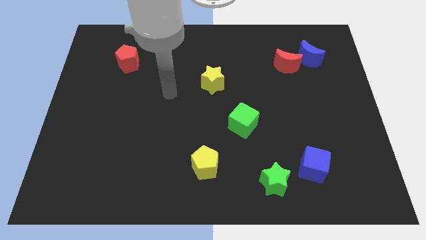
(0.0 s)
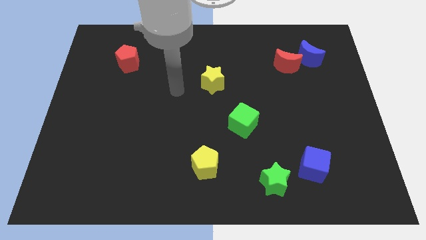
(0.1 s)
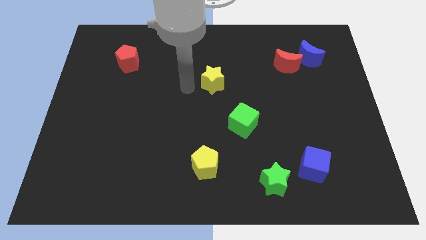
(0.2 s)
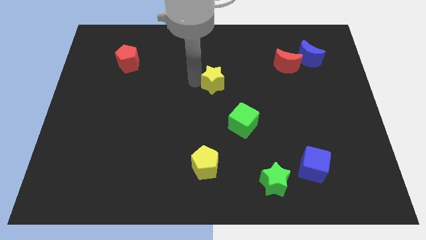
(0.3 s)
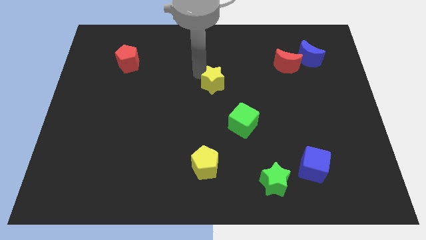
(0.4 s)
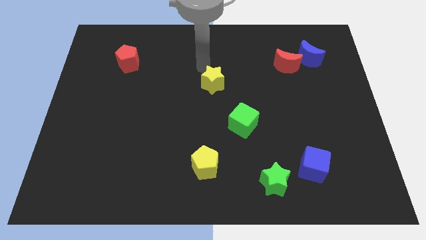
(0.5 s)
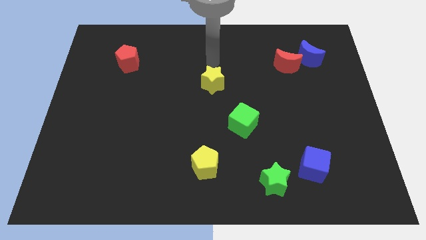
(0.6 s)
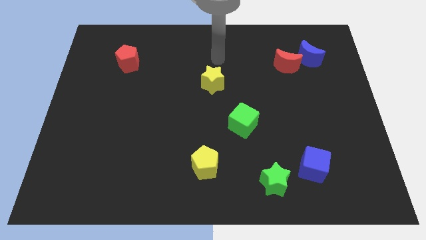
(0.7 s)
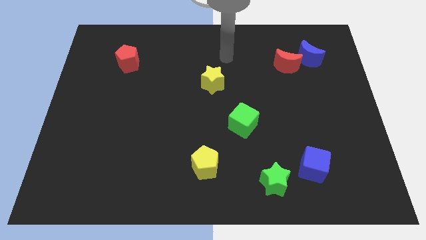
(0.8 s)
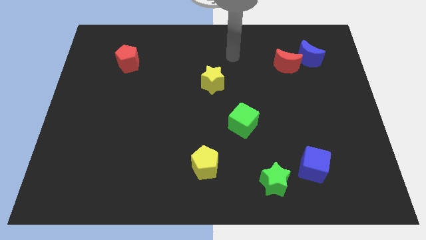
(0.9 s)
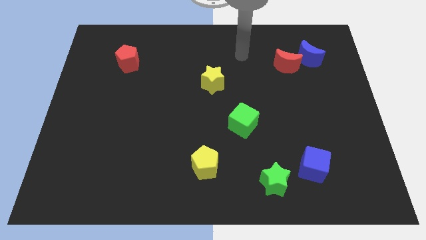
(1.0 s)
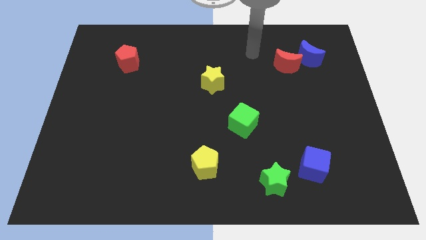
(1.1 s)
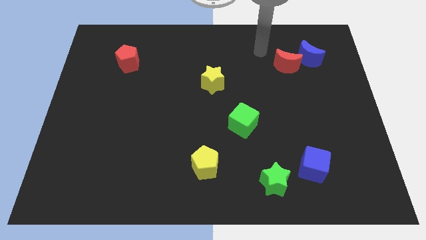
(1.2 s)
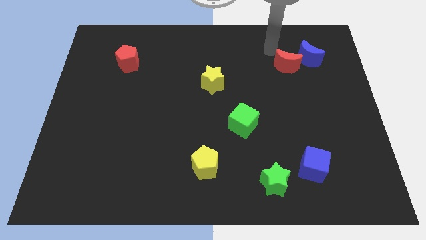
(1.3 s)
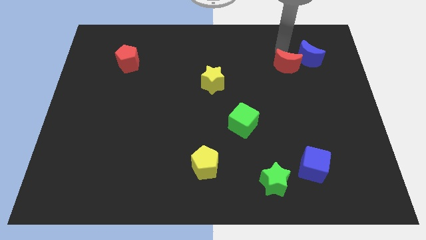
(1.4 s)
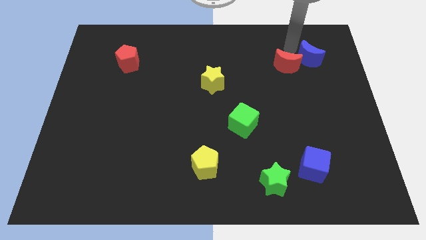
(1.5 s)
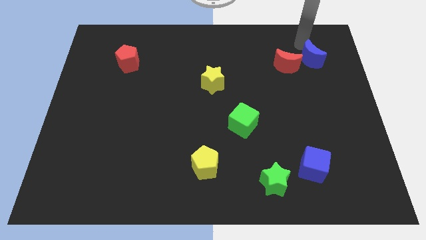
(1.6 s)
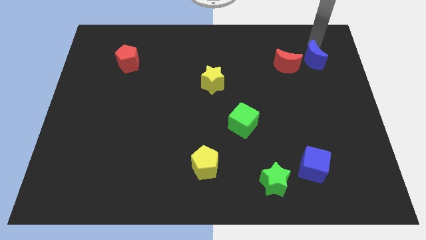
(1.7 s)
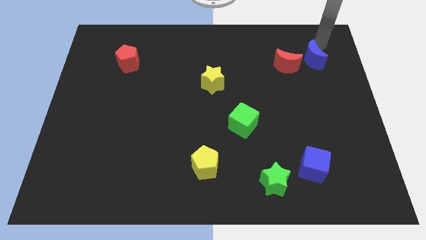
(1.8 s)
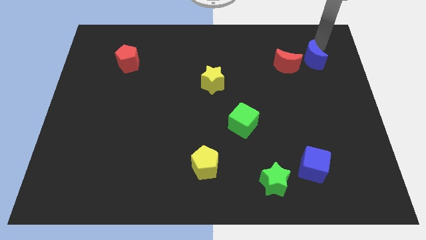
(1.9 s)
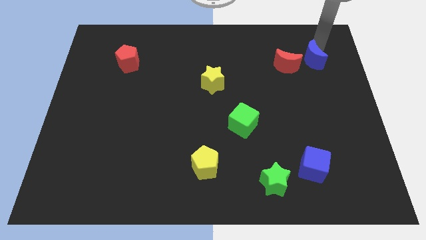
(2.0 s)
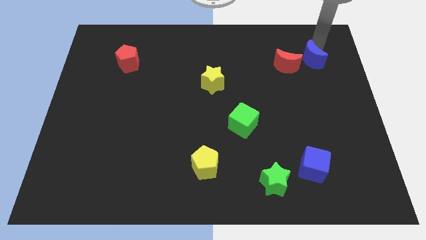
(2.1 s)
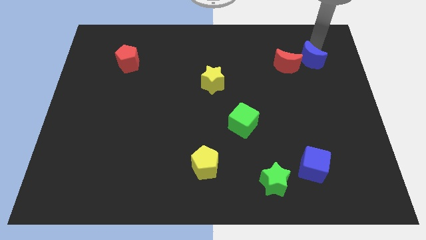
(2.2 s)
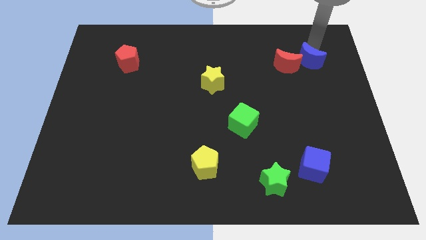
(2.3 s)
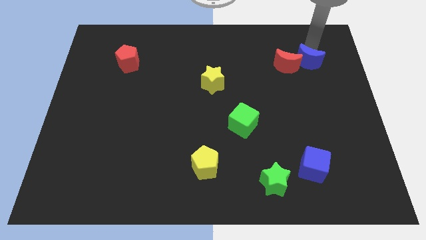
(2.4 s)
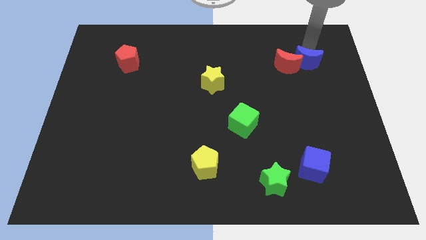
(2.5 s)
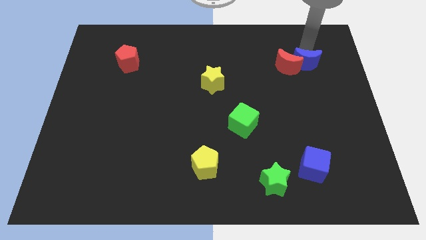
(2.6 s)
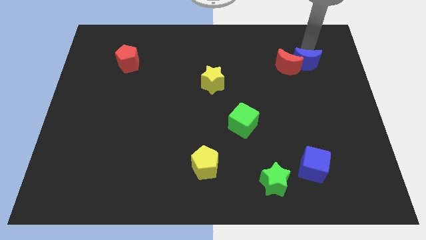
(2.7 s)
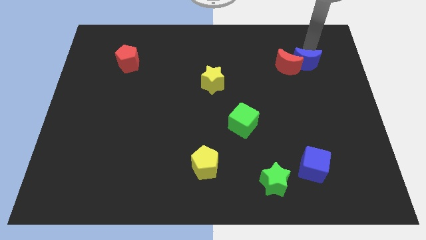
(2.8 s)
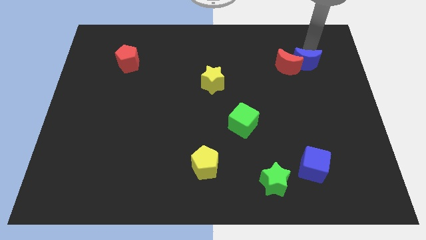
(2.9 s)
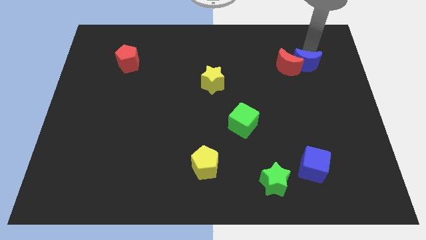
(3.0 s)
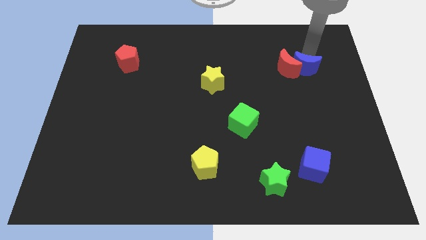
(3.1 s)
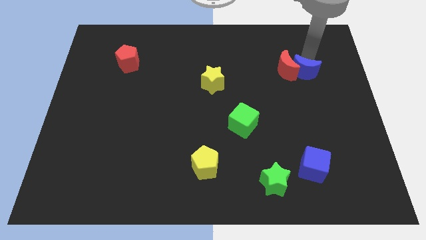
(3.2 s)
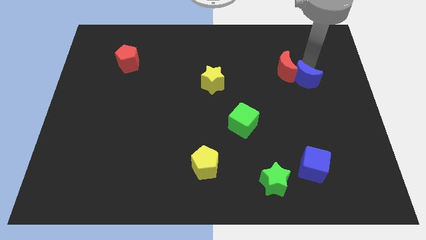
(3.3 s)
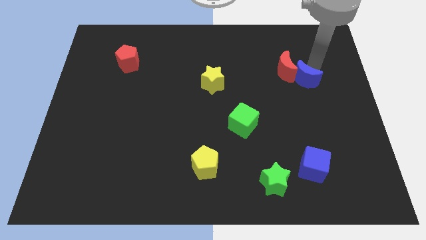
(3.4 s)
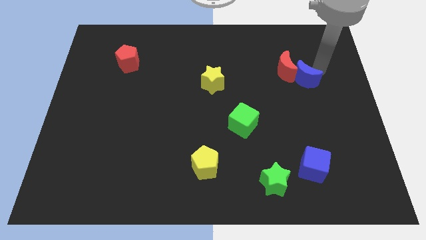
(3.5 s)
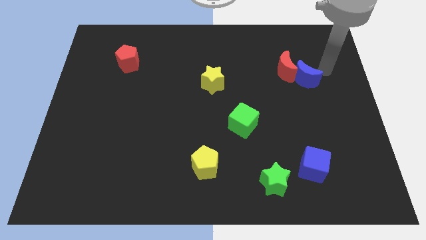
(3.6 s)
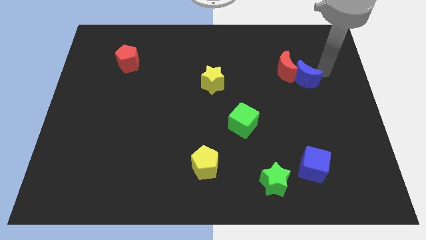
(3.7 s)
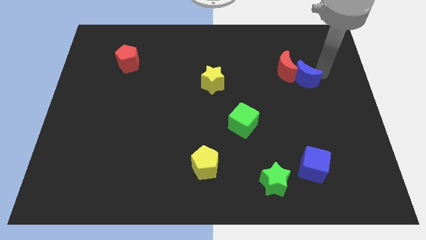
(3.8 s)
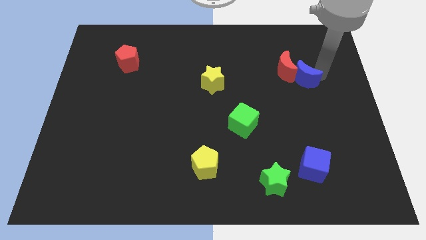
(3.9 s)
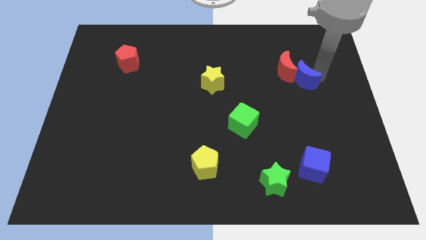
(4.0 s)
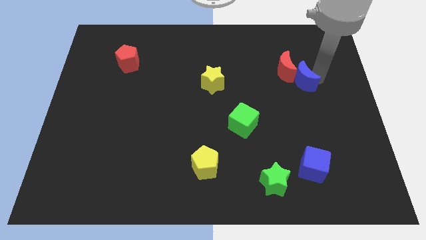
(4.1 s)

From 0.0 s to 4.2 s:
move the blue moon diagonally down and left a bit

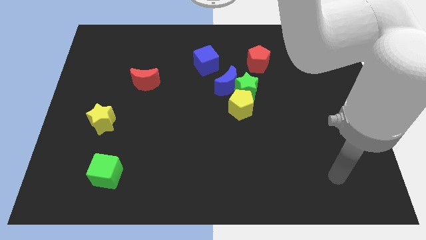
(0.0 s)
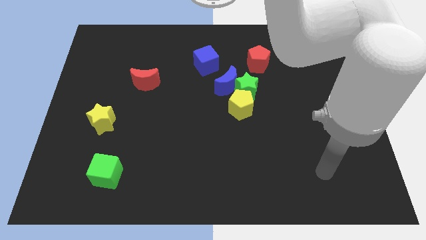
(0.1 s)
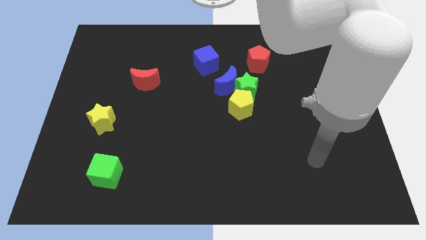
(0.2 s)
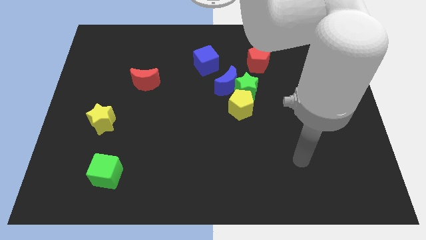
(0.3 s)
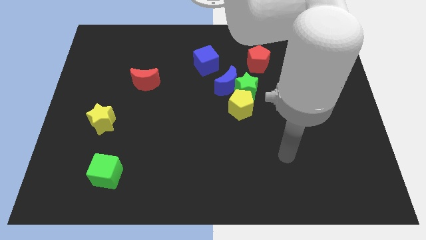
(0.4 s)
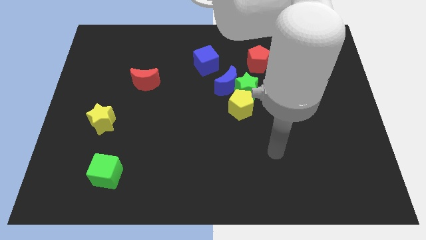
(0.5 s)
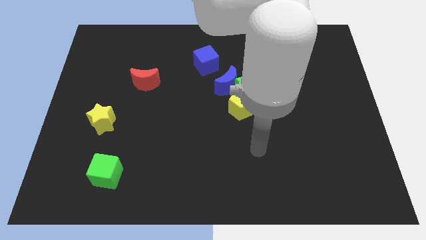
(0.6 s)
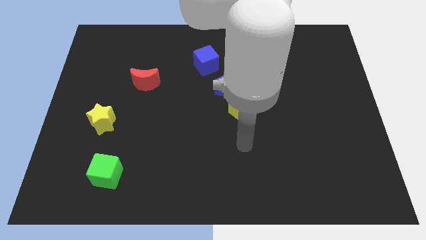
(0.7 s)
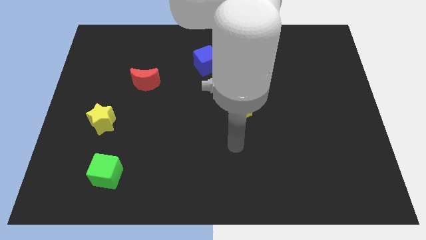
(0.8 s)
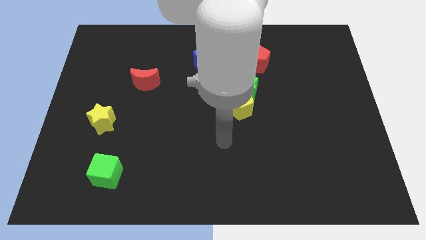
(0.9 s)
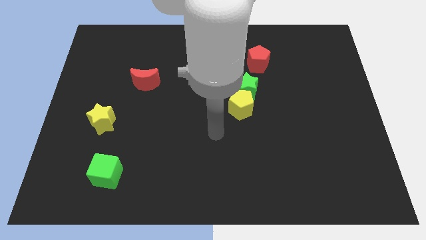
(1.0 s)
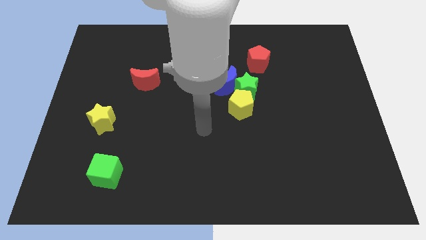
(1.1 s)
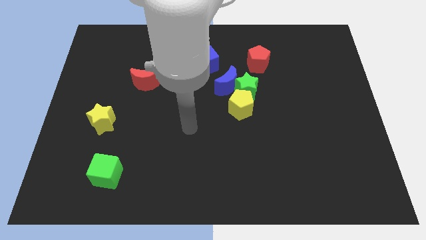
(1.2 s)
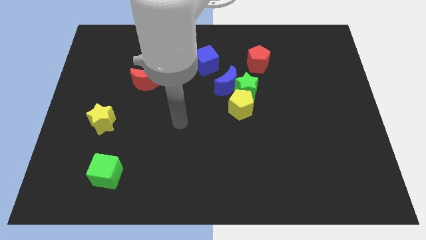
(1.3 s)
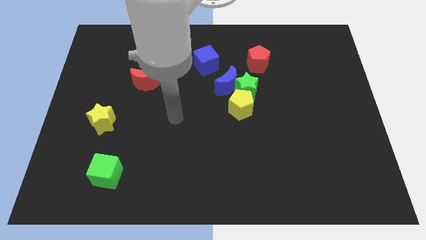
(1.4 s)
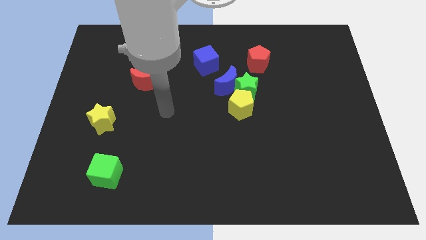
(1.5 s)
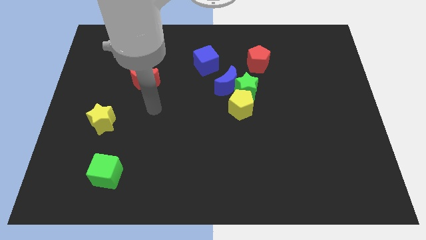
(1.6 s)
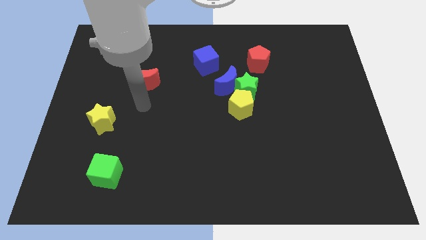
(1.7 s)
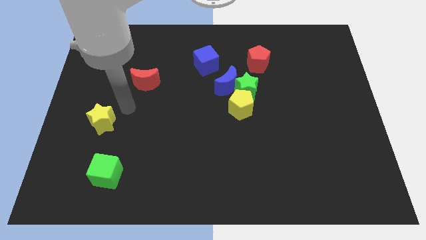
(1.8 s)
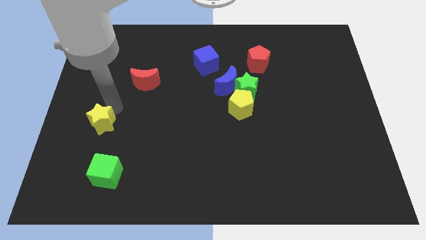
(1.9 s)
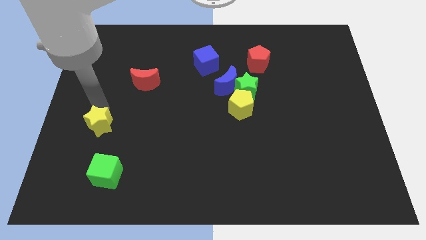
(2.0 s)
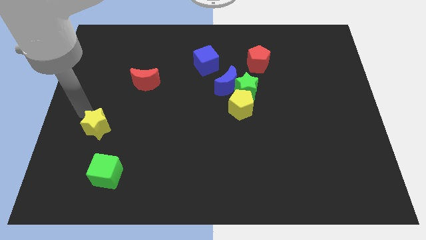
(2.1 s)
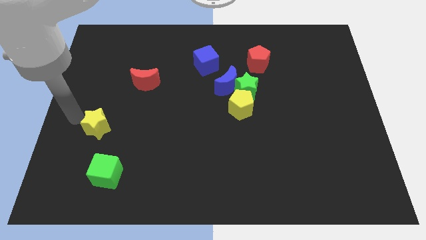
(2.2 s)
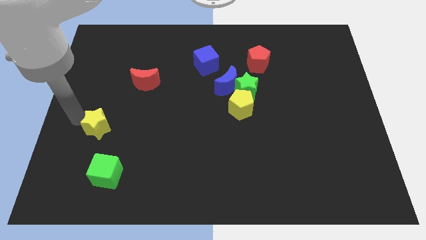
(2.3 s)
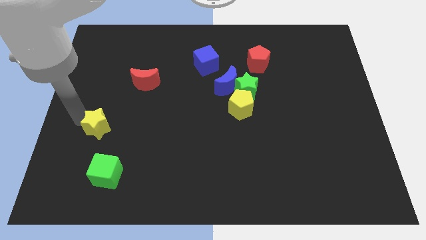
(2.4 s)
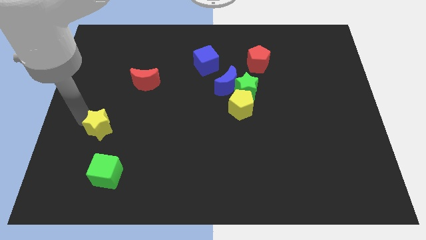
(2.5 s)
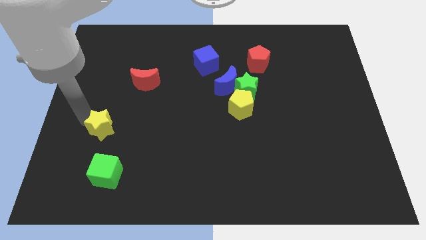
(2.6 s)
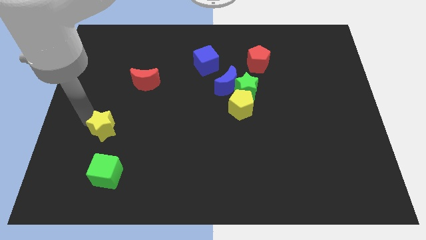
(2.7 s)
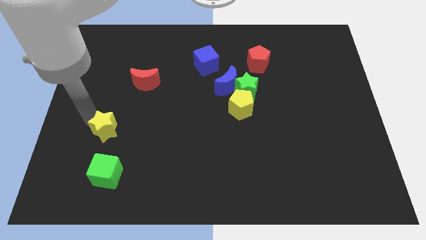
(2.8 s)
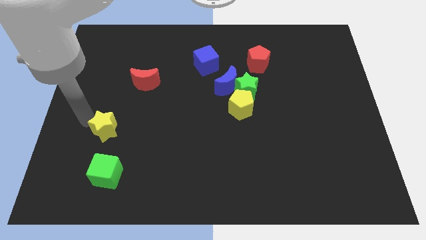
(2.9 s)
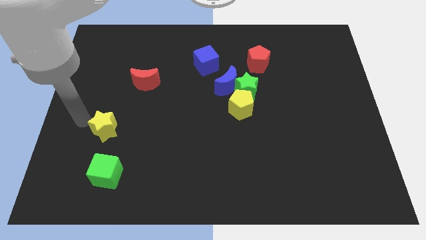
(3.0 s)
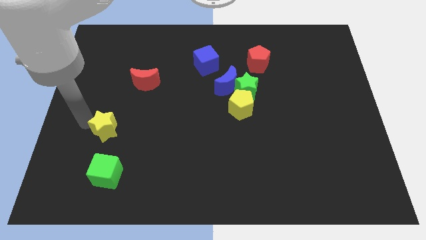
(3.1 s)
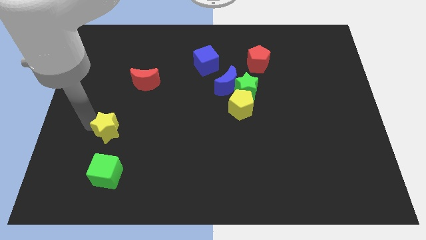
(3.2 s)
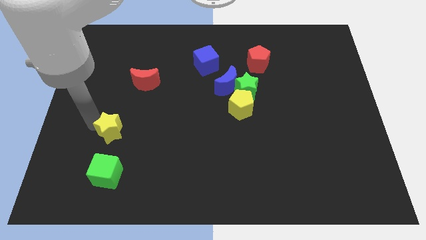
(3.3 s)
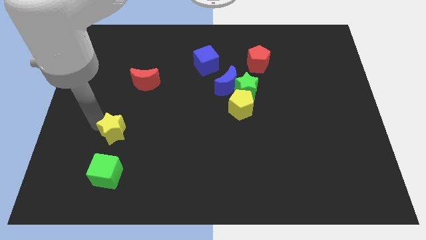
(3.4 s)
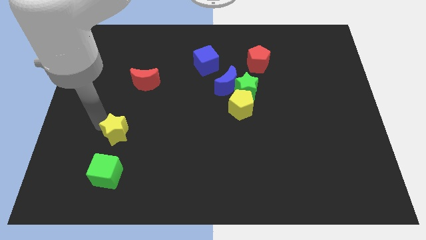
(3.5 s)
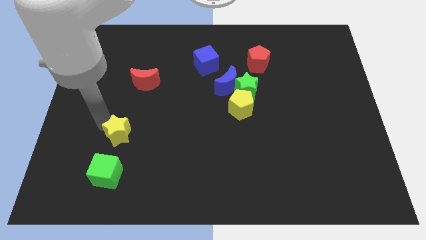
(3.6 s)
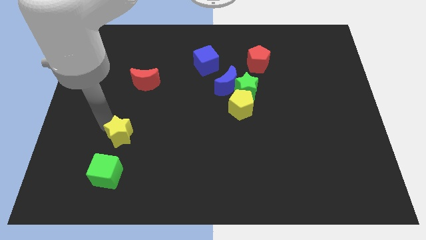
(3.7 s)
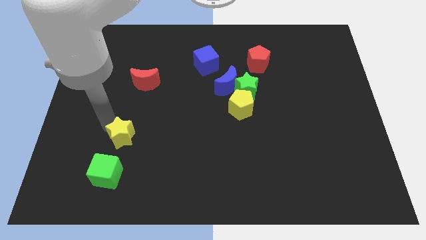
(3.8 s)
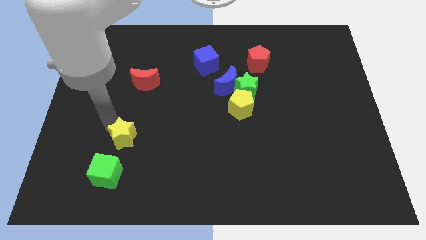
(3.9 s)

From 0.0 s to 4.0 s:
move the yellow star diagonally down and to the right a little
